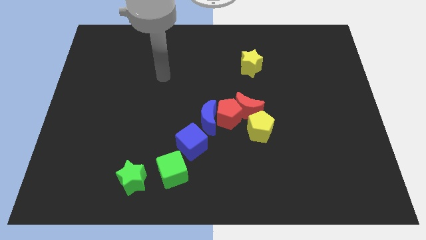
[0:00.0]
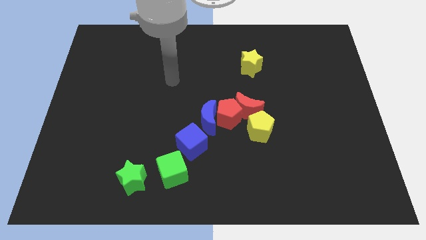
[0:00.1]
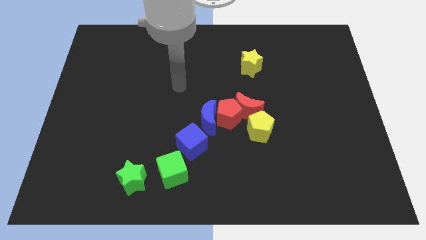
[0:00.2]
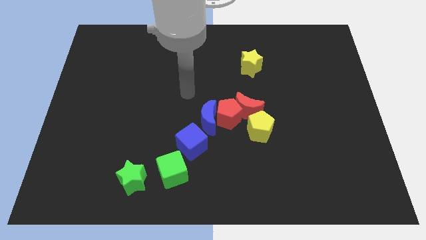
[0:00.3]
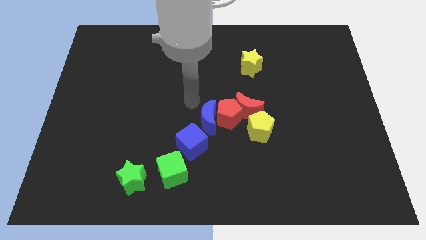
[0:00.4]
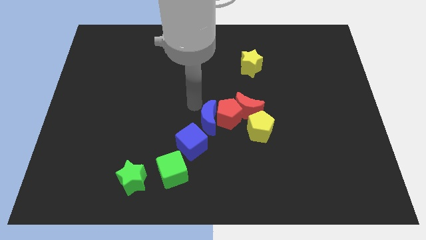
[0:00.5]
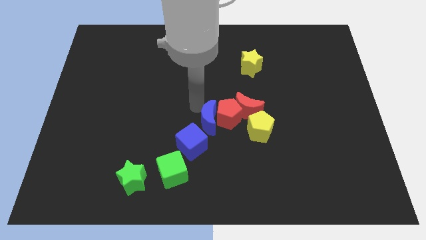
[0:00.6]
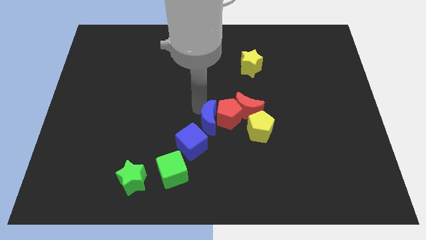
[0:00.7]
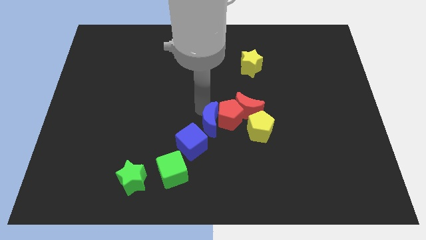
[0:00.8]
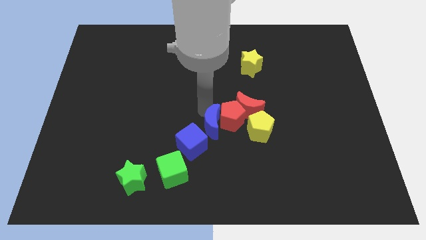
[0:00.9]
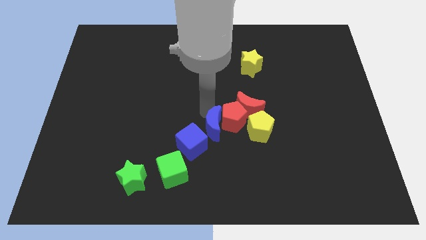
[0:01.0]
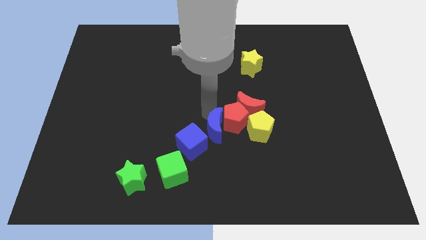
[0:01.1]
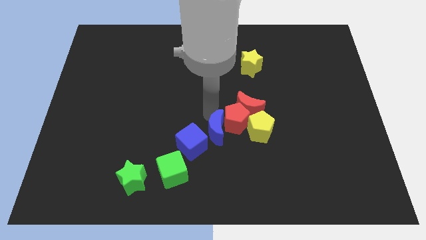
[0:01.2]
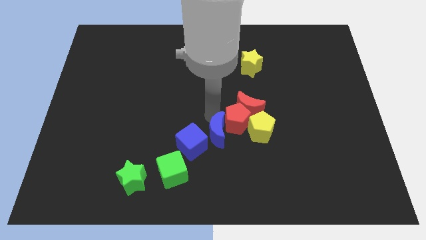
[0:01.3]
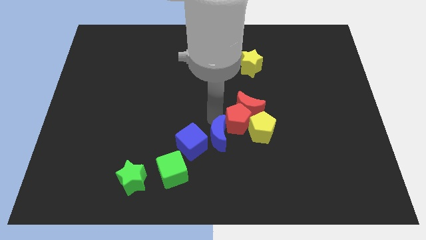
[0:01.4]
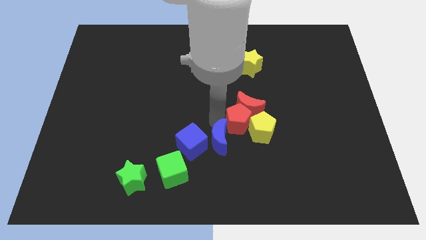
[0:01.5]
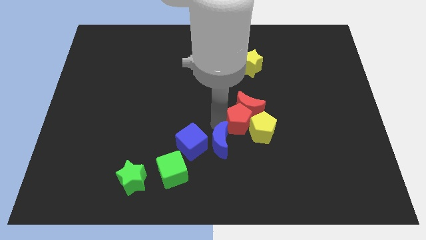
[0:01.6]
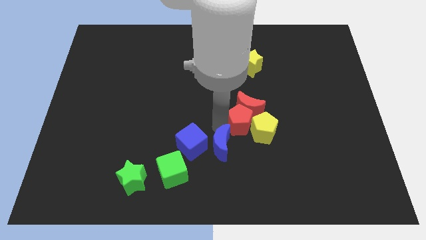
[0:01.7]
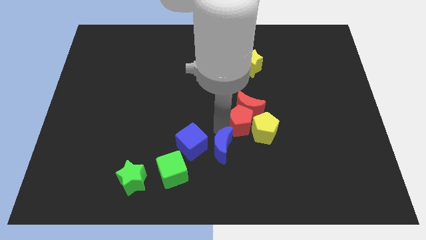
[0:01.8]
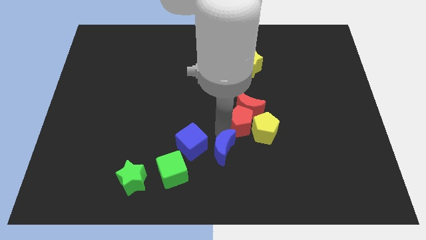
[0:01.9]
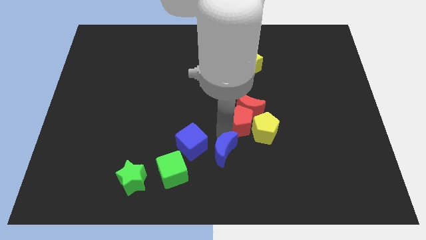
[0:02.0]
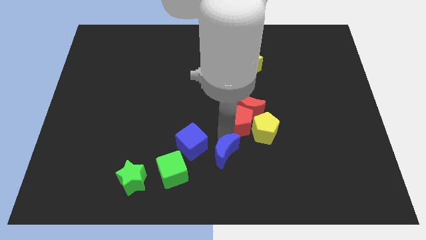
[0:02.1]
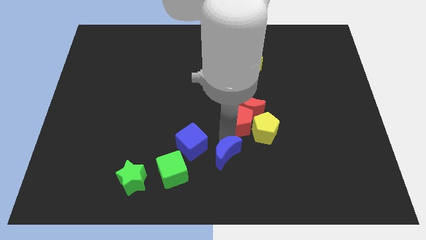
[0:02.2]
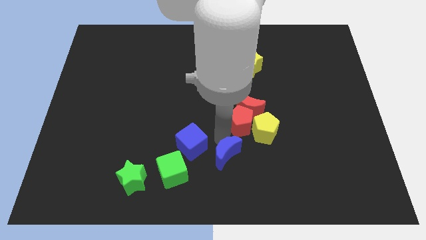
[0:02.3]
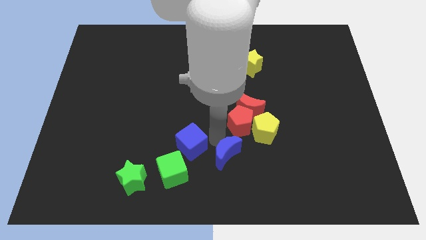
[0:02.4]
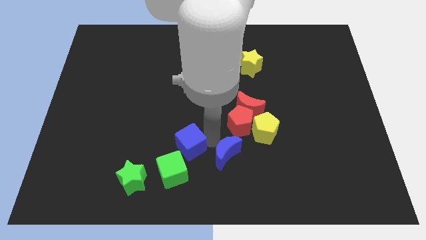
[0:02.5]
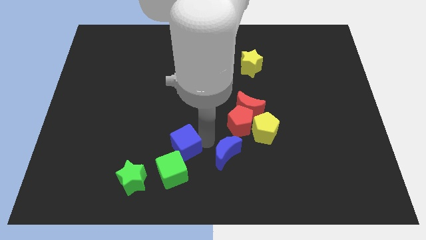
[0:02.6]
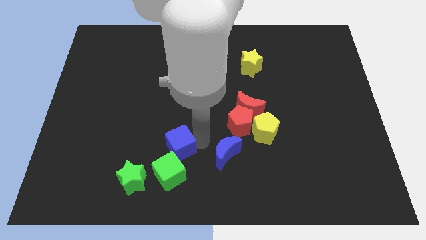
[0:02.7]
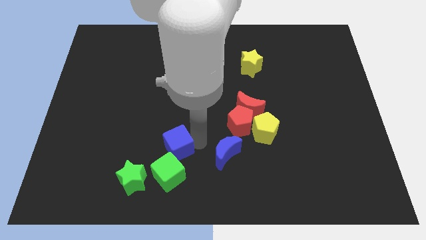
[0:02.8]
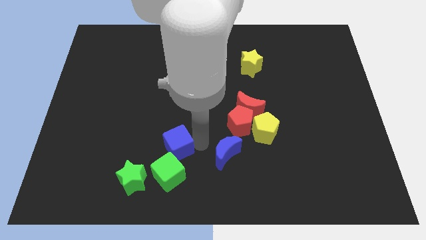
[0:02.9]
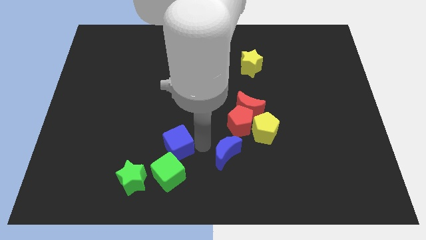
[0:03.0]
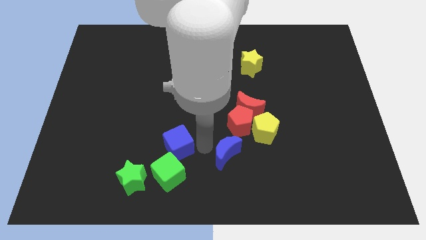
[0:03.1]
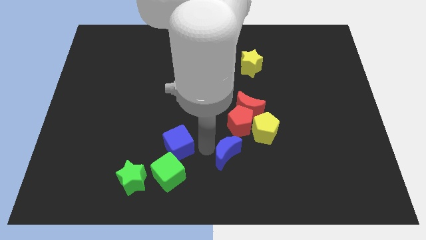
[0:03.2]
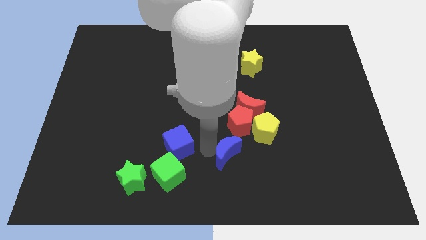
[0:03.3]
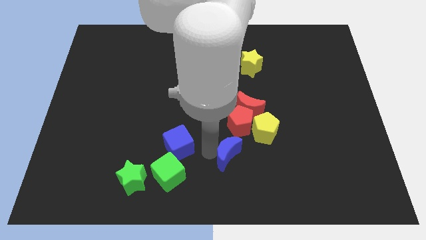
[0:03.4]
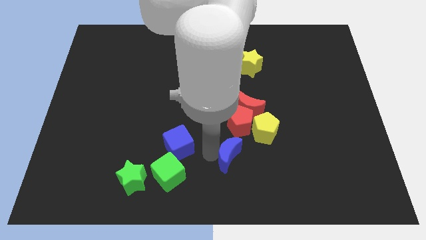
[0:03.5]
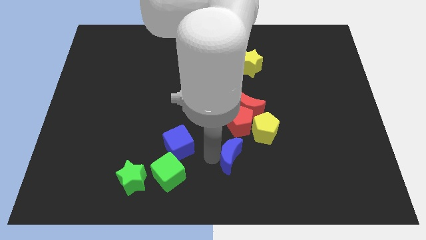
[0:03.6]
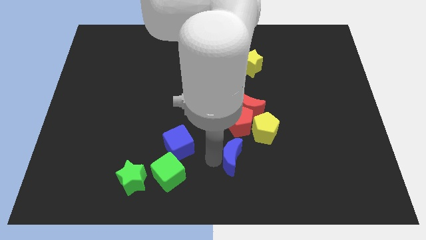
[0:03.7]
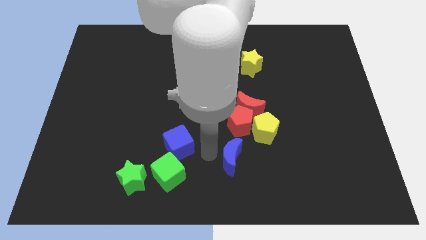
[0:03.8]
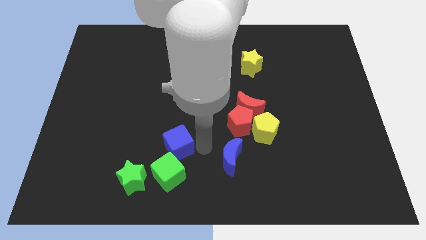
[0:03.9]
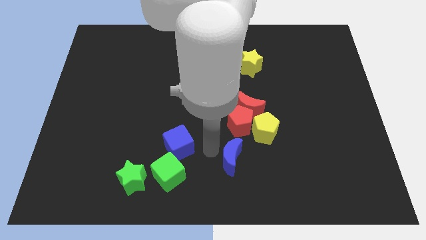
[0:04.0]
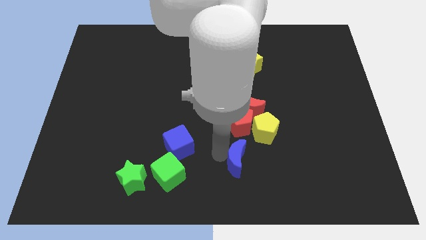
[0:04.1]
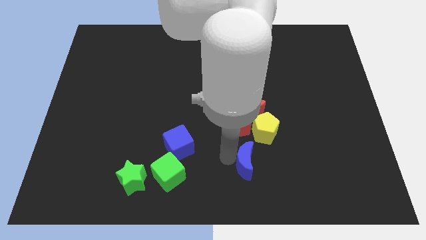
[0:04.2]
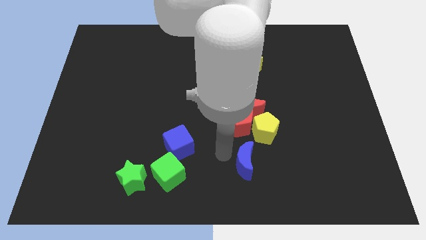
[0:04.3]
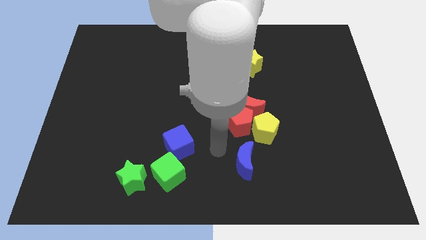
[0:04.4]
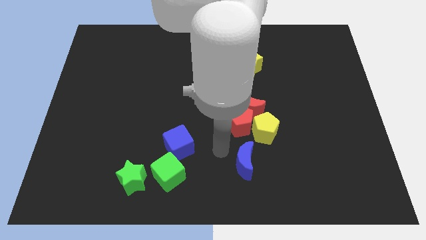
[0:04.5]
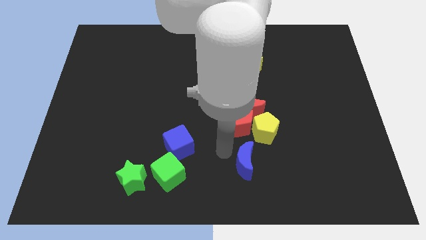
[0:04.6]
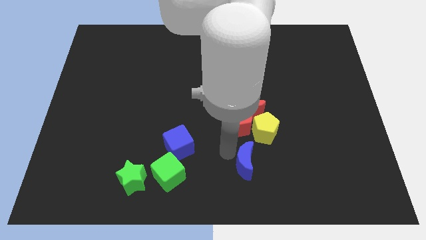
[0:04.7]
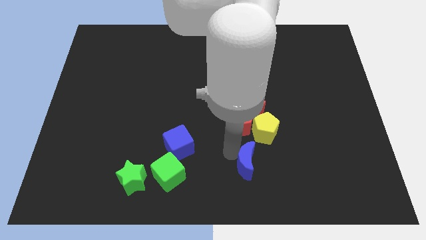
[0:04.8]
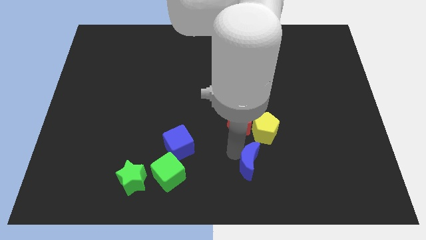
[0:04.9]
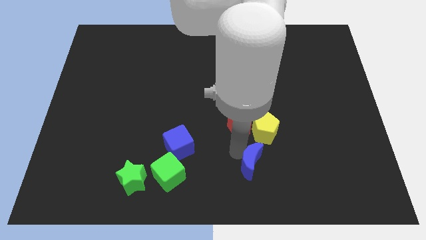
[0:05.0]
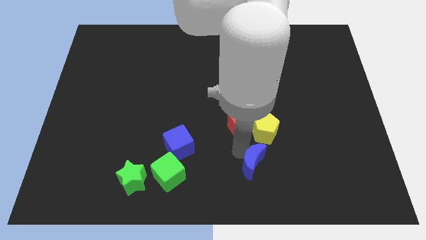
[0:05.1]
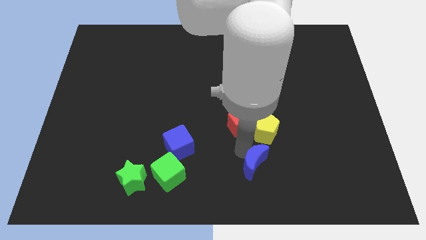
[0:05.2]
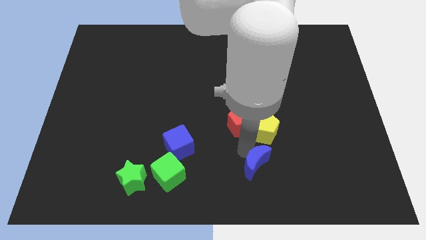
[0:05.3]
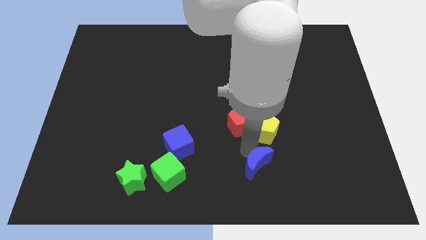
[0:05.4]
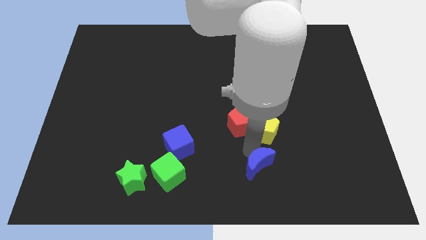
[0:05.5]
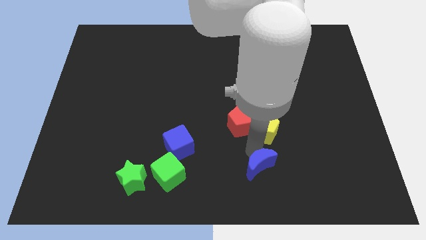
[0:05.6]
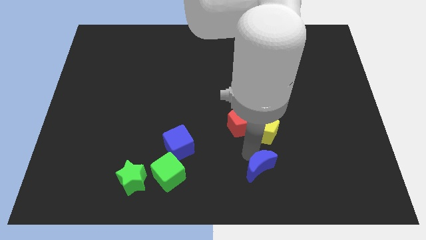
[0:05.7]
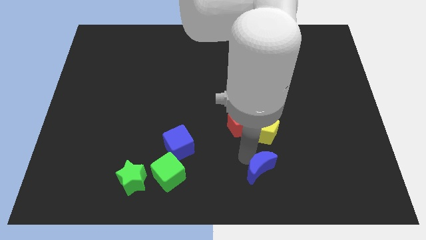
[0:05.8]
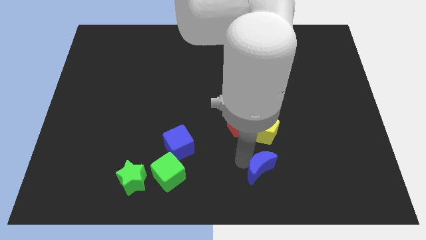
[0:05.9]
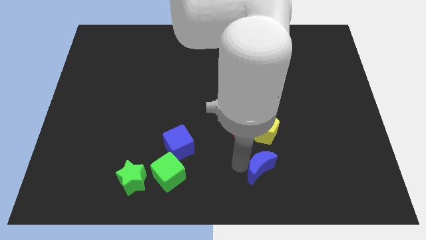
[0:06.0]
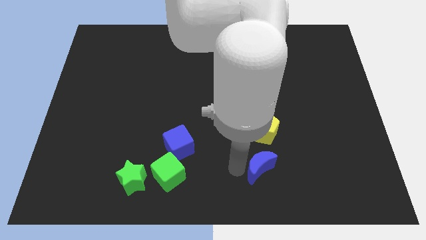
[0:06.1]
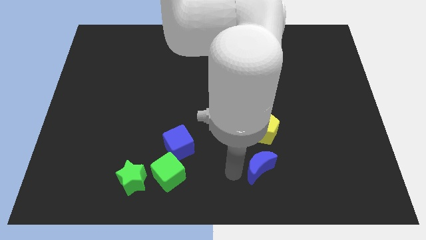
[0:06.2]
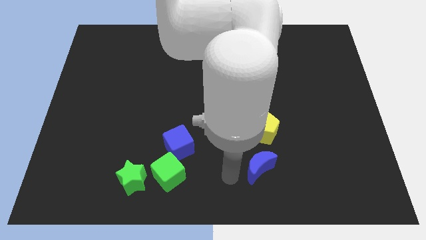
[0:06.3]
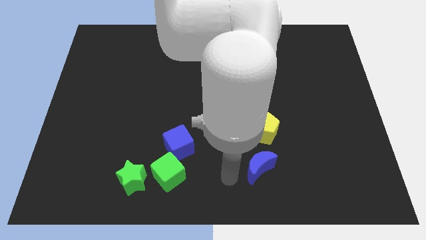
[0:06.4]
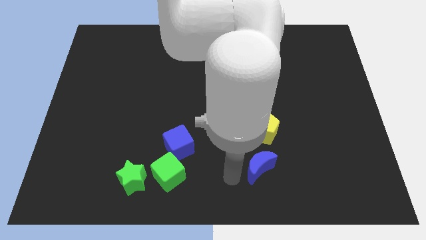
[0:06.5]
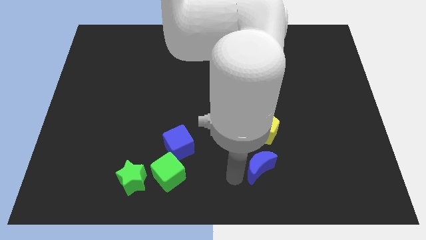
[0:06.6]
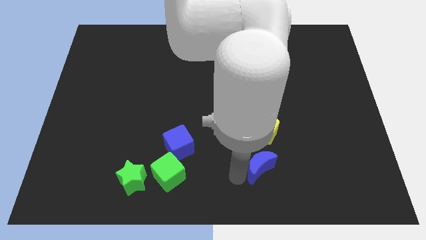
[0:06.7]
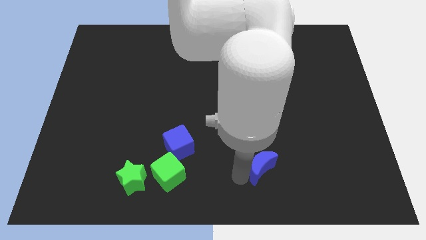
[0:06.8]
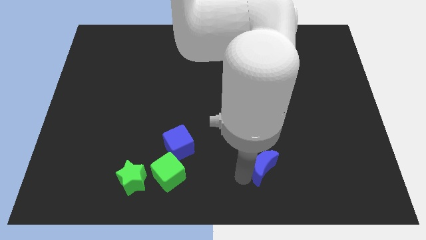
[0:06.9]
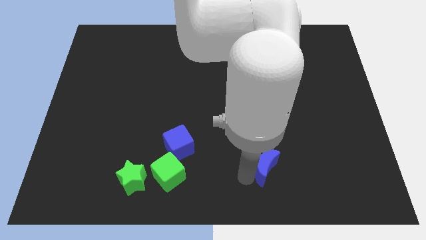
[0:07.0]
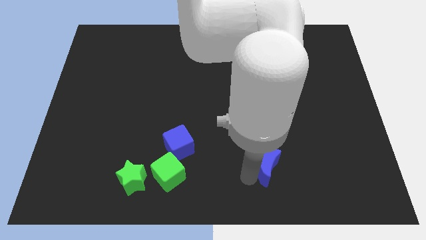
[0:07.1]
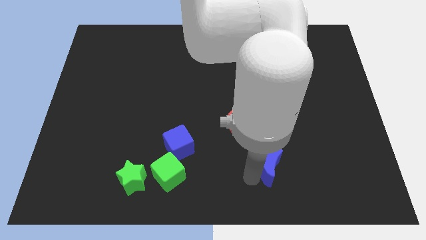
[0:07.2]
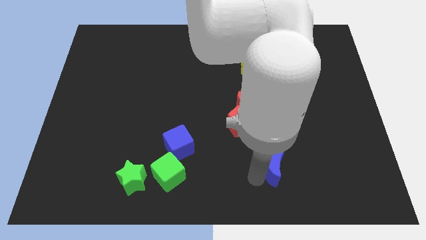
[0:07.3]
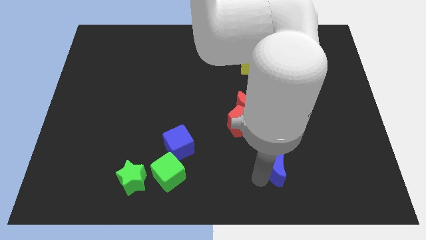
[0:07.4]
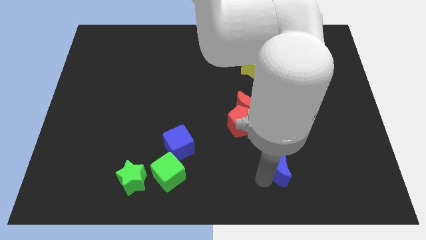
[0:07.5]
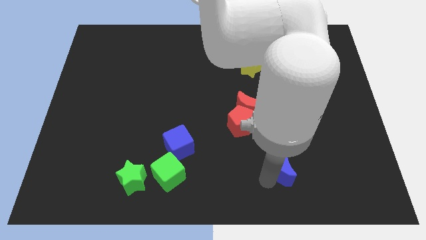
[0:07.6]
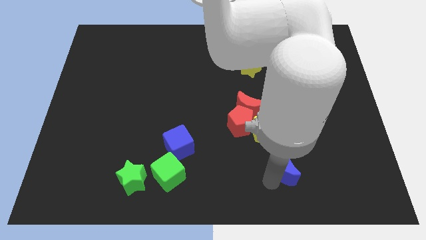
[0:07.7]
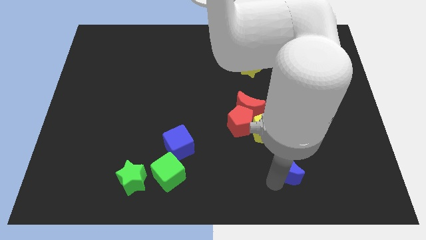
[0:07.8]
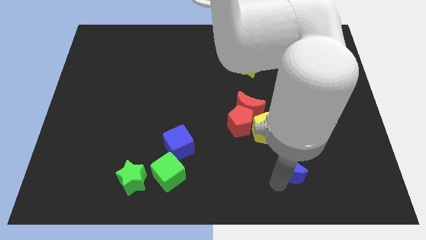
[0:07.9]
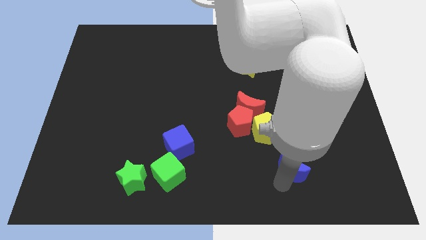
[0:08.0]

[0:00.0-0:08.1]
slightly push the blue moon to the right
